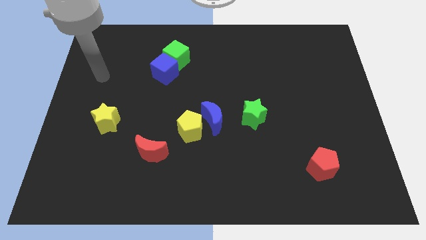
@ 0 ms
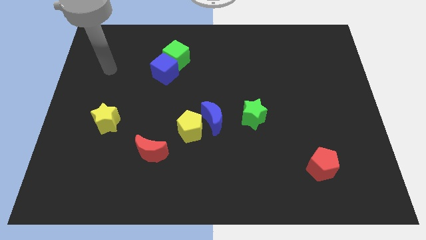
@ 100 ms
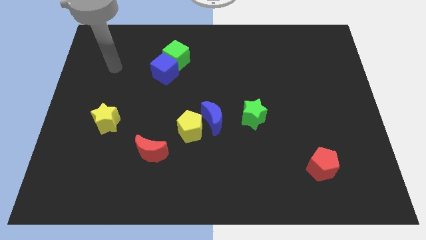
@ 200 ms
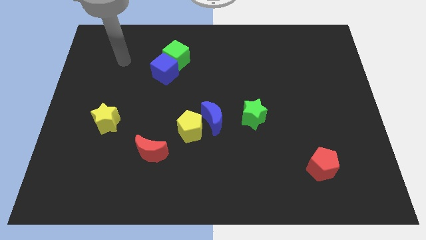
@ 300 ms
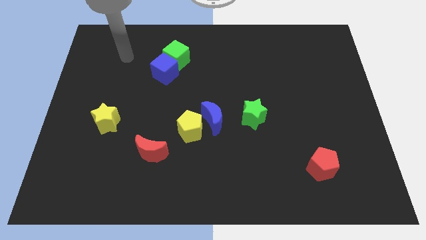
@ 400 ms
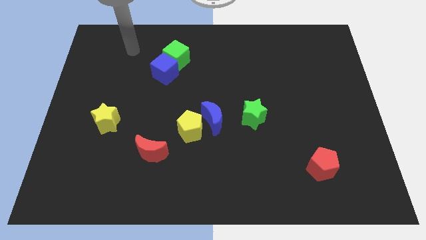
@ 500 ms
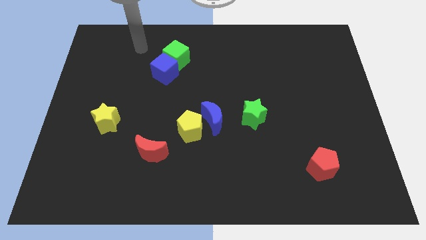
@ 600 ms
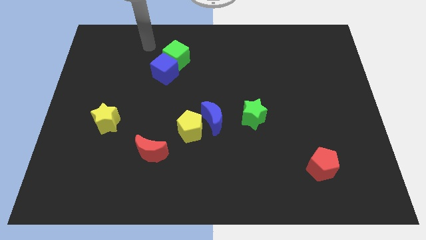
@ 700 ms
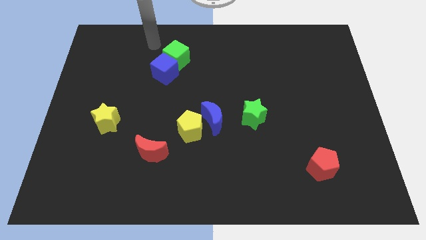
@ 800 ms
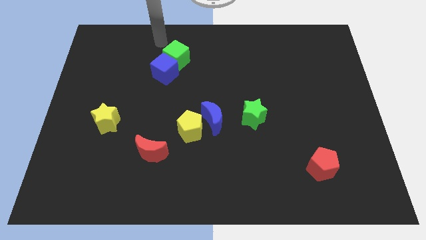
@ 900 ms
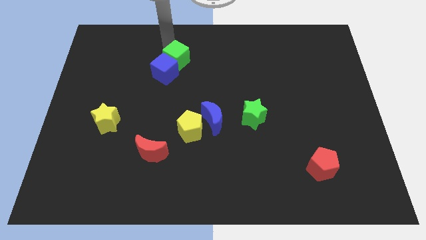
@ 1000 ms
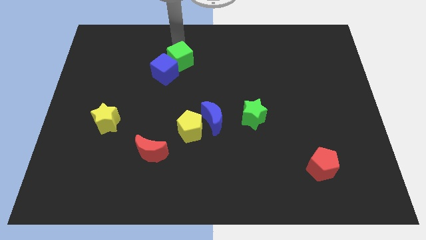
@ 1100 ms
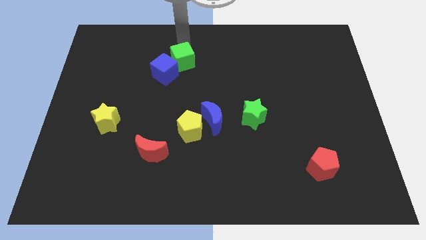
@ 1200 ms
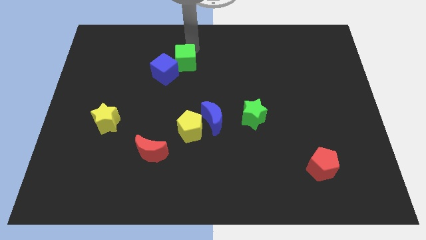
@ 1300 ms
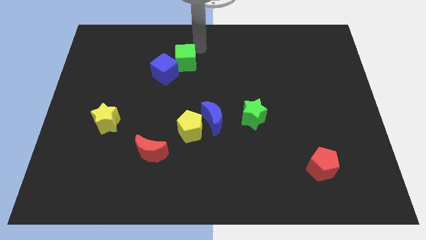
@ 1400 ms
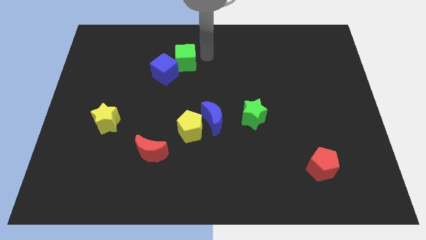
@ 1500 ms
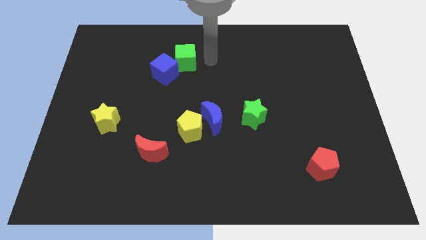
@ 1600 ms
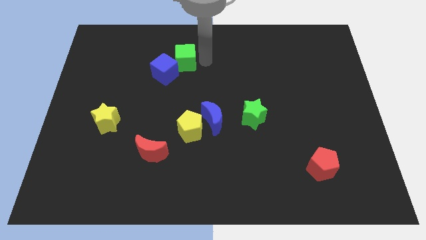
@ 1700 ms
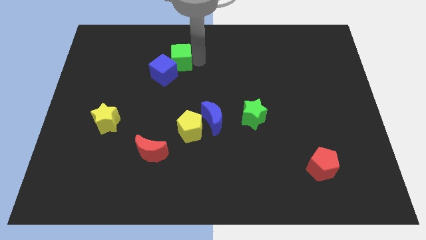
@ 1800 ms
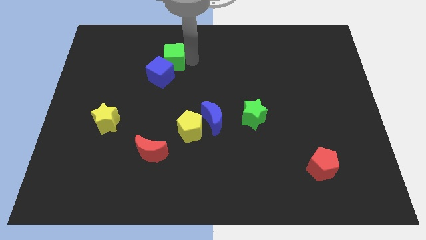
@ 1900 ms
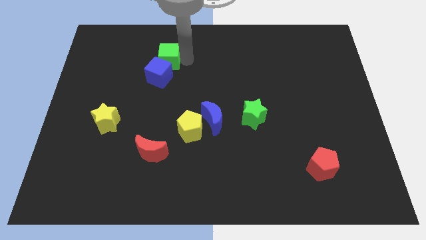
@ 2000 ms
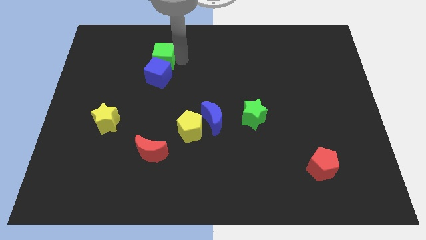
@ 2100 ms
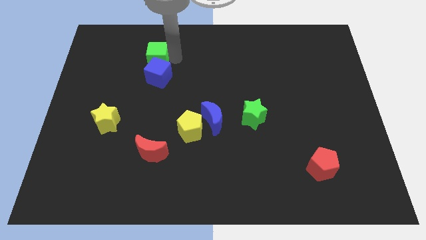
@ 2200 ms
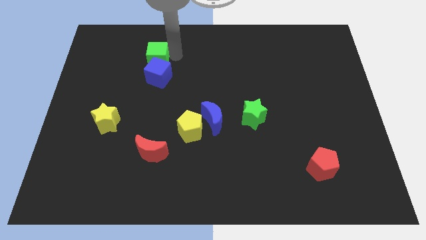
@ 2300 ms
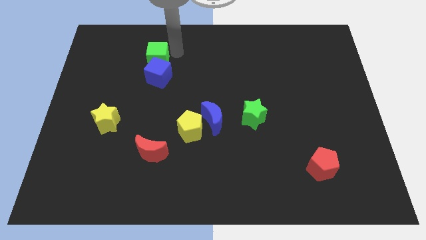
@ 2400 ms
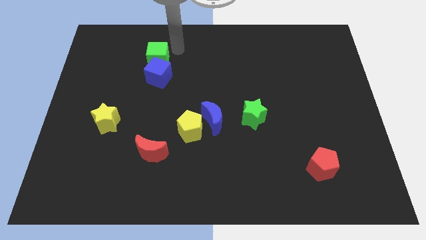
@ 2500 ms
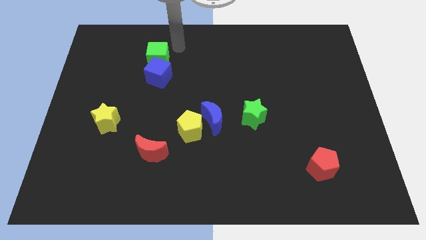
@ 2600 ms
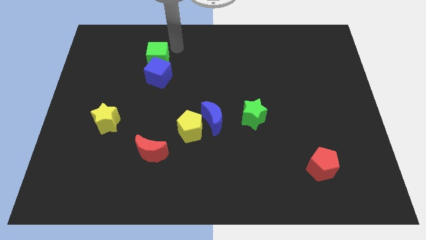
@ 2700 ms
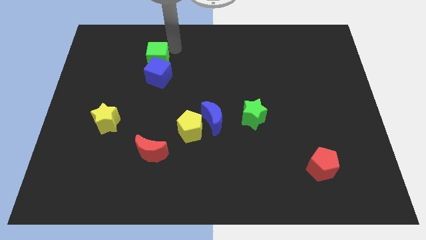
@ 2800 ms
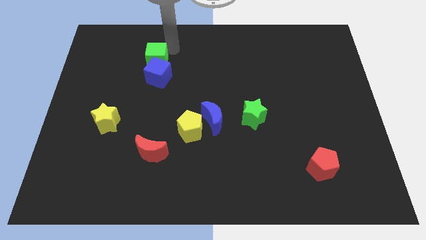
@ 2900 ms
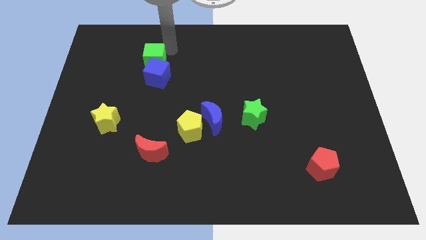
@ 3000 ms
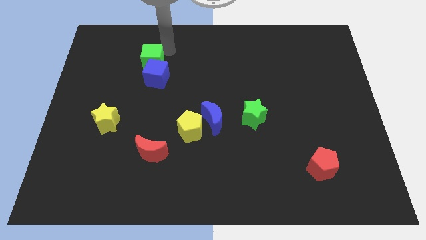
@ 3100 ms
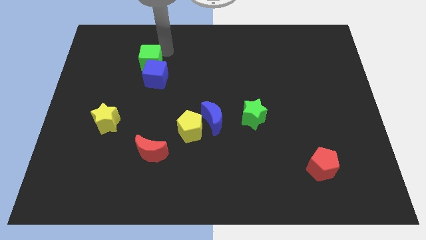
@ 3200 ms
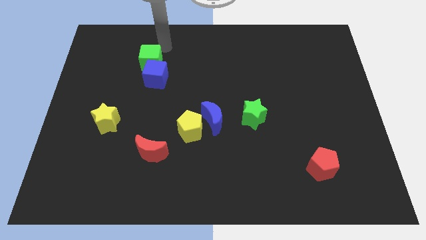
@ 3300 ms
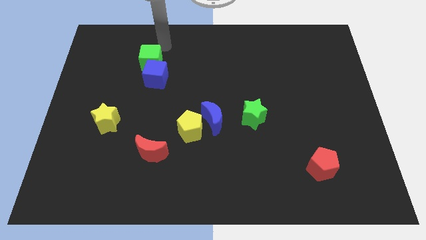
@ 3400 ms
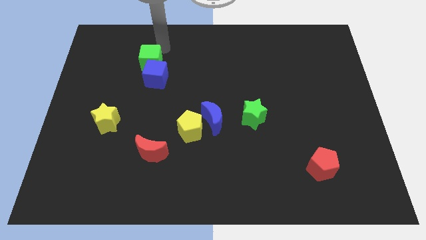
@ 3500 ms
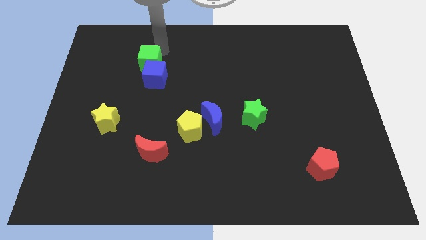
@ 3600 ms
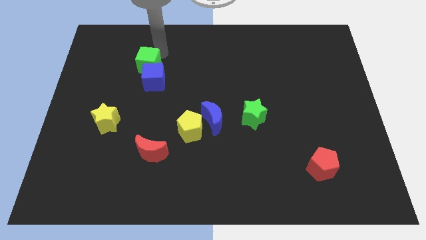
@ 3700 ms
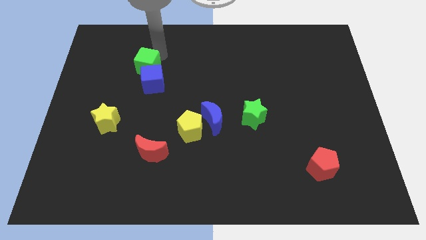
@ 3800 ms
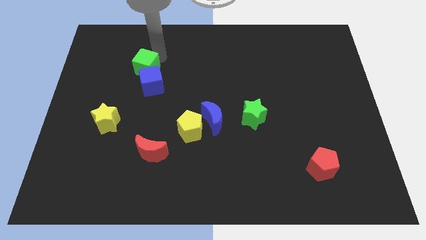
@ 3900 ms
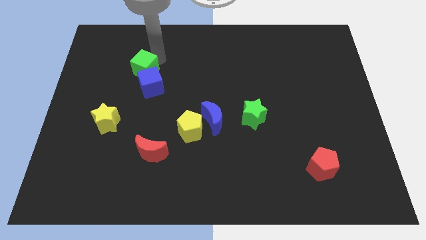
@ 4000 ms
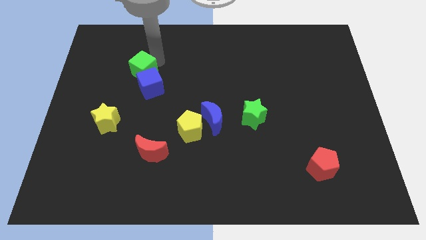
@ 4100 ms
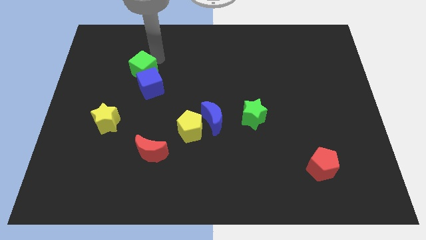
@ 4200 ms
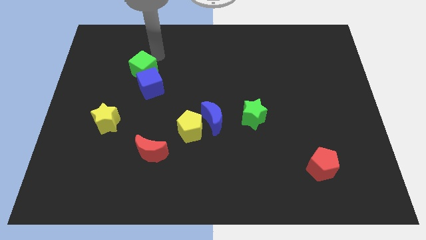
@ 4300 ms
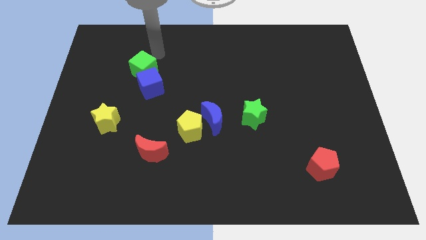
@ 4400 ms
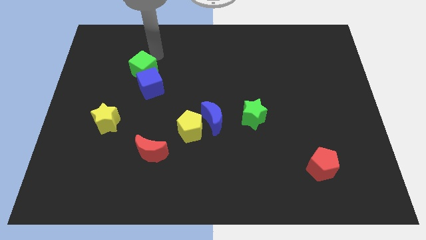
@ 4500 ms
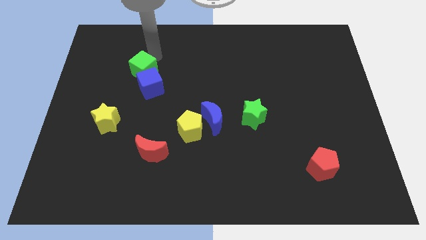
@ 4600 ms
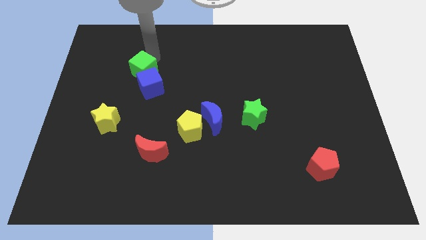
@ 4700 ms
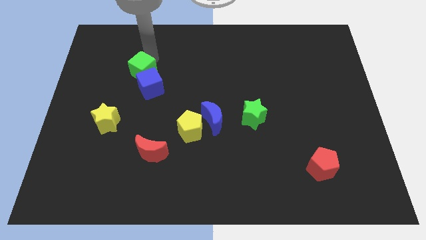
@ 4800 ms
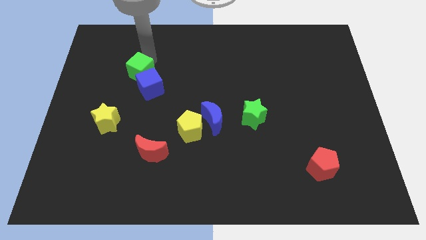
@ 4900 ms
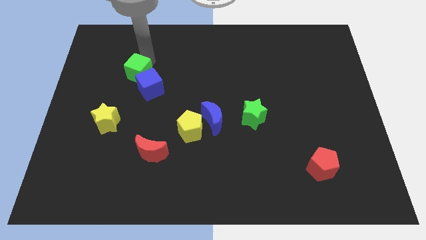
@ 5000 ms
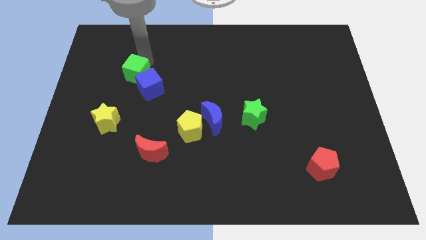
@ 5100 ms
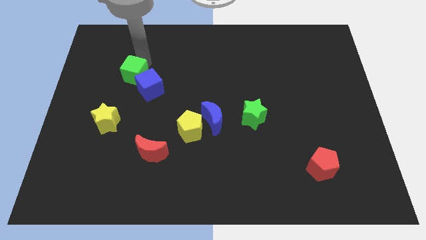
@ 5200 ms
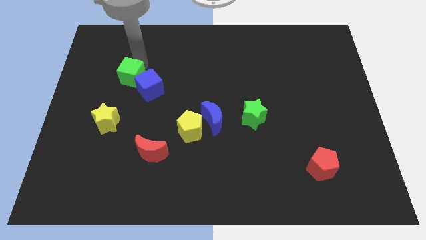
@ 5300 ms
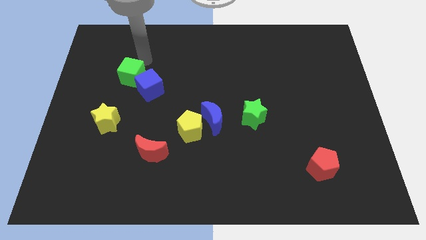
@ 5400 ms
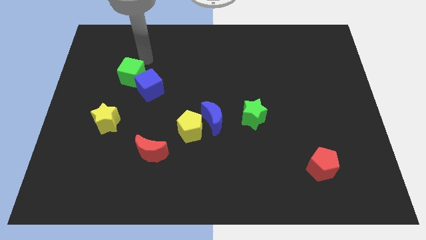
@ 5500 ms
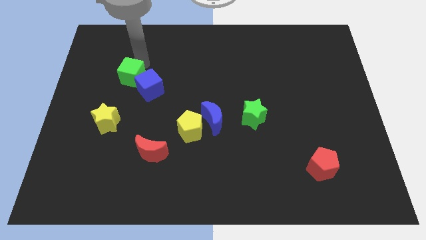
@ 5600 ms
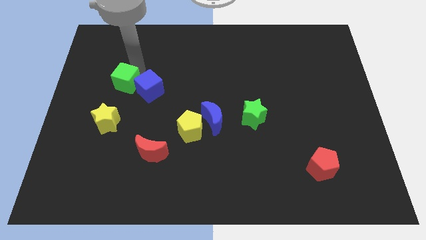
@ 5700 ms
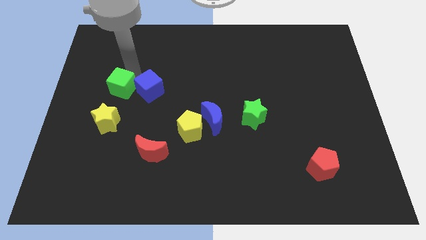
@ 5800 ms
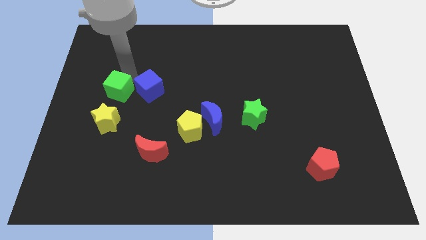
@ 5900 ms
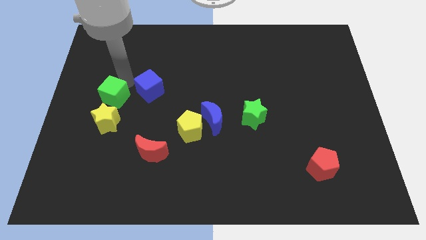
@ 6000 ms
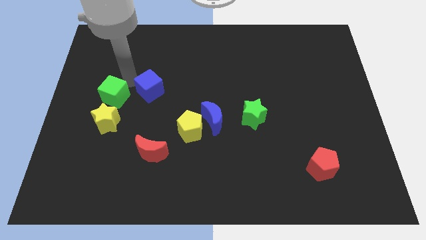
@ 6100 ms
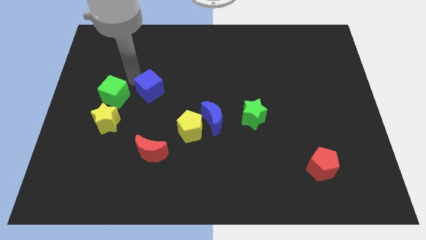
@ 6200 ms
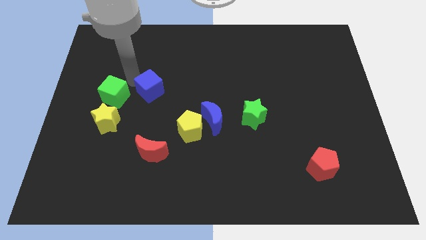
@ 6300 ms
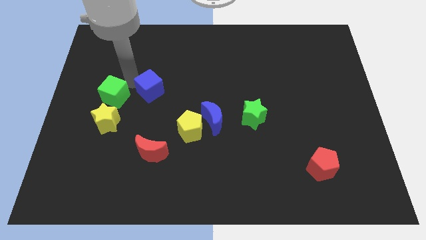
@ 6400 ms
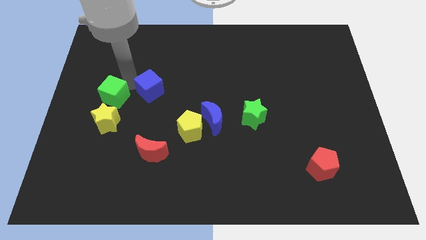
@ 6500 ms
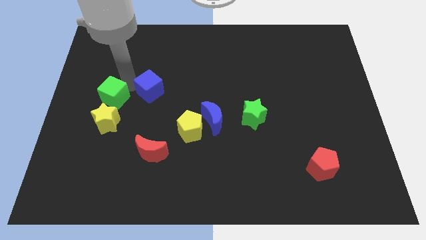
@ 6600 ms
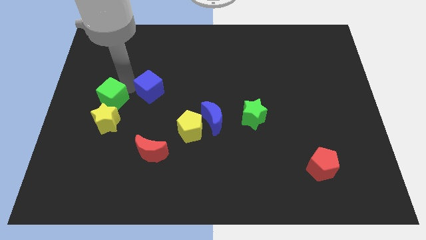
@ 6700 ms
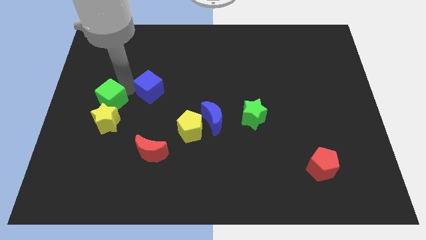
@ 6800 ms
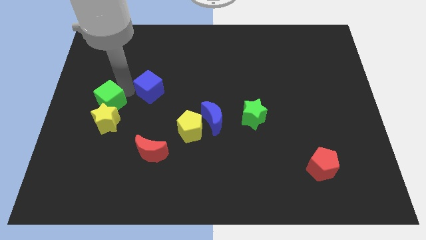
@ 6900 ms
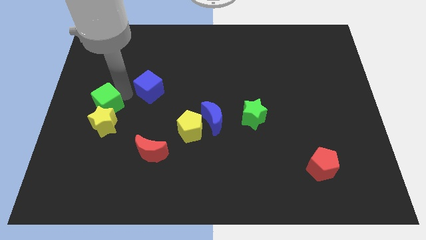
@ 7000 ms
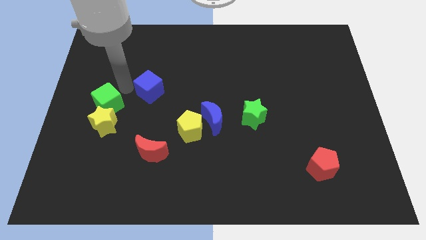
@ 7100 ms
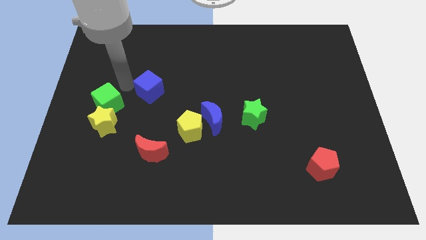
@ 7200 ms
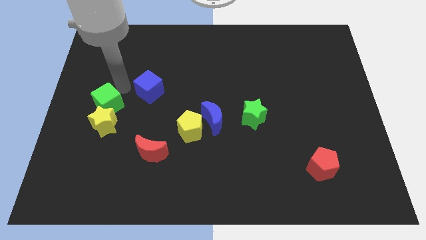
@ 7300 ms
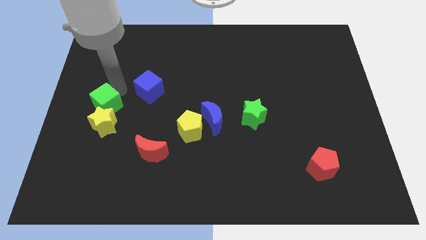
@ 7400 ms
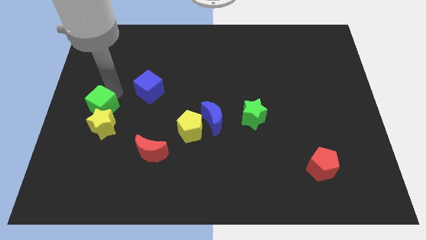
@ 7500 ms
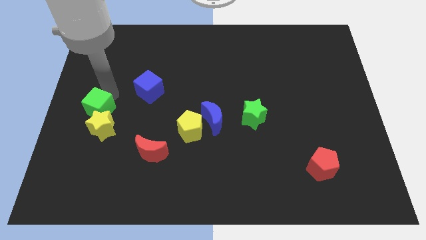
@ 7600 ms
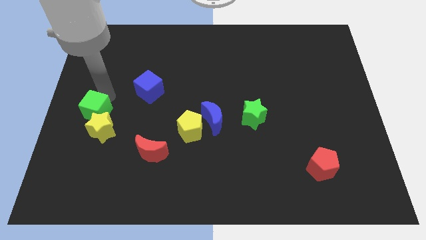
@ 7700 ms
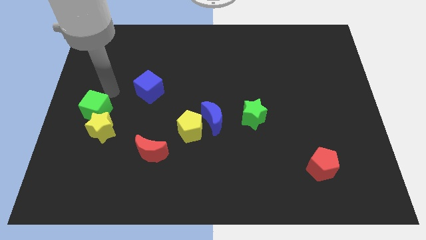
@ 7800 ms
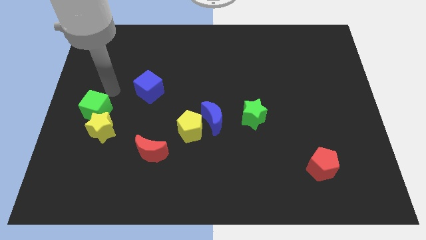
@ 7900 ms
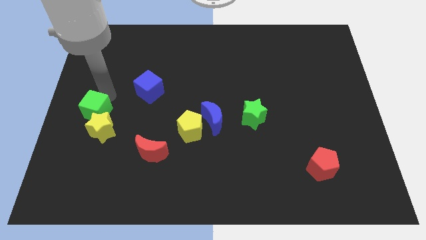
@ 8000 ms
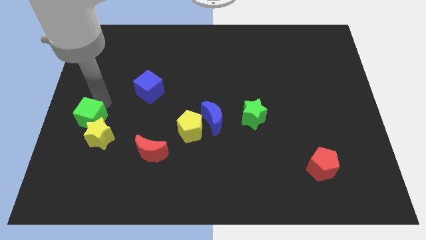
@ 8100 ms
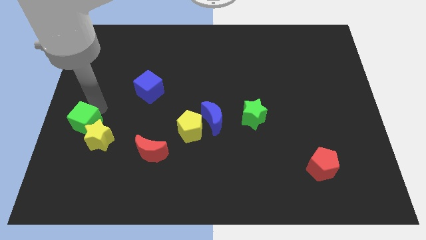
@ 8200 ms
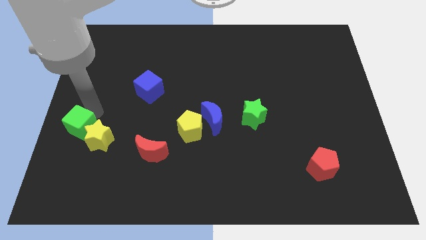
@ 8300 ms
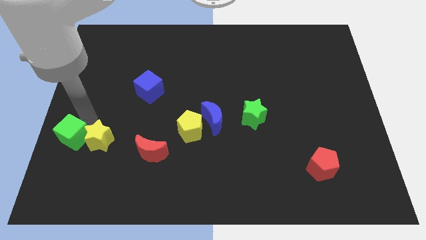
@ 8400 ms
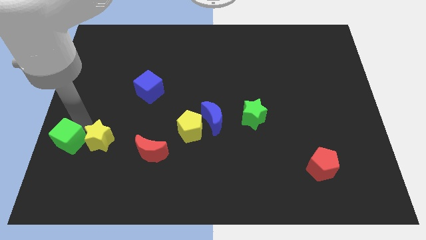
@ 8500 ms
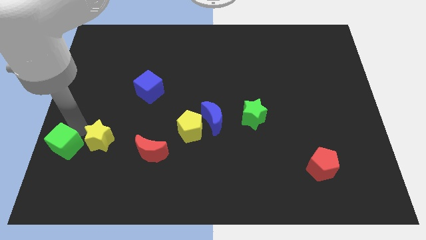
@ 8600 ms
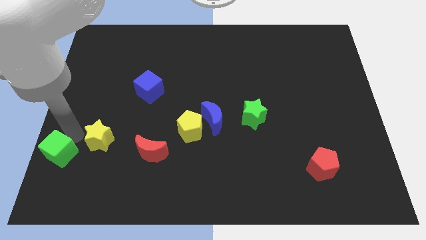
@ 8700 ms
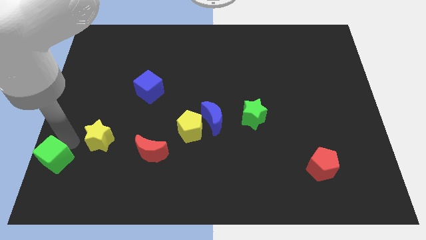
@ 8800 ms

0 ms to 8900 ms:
move the green cube to the bottom left corner
